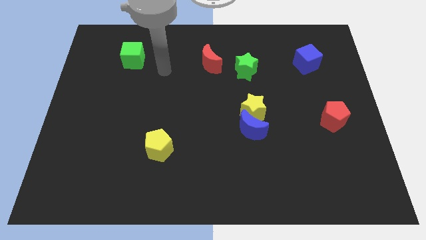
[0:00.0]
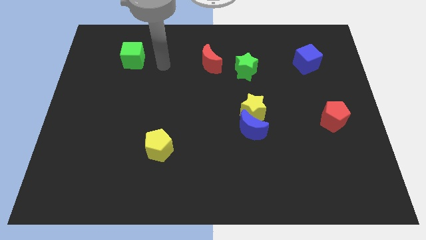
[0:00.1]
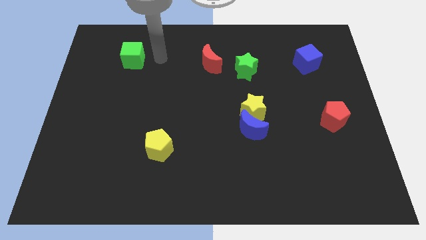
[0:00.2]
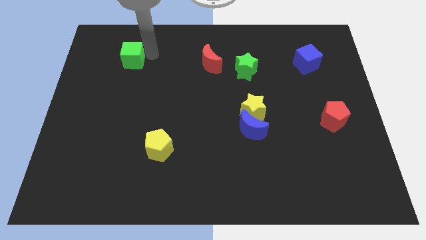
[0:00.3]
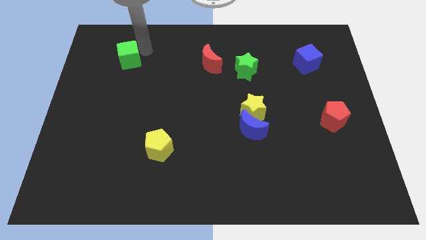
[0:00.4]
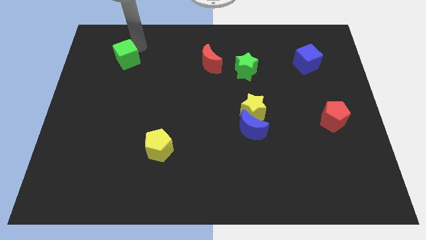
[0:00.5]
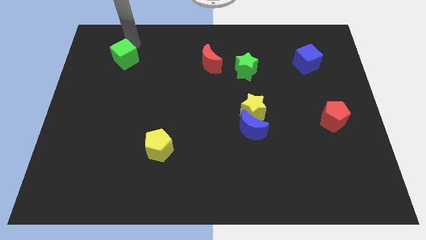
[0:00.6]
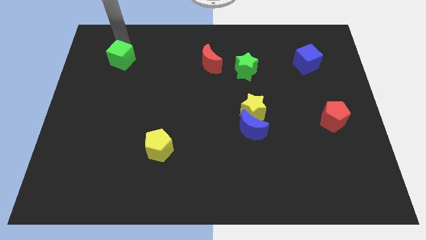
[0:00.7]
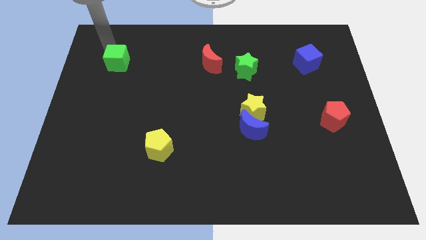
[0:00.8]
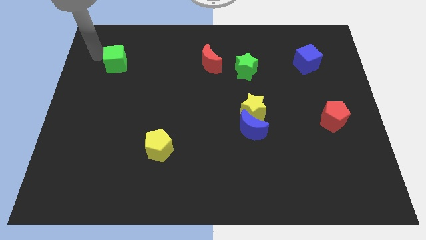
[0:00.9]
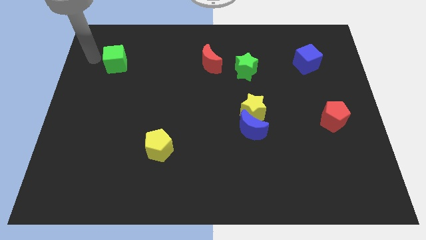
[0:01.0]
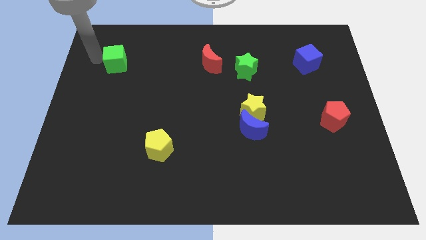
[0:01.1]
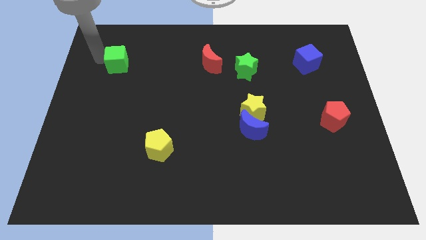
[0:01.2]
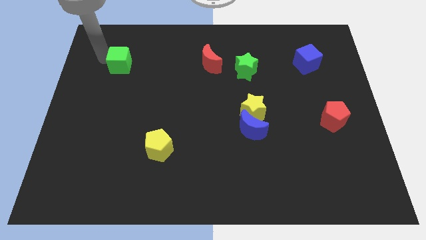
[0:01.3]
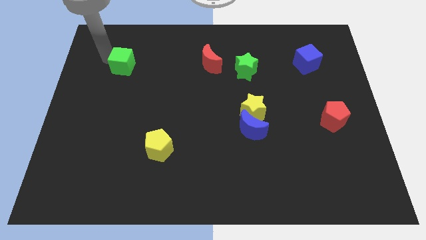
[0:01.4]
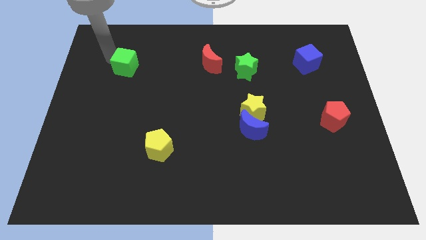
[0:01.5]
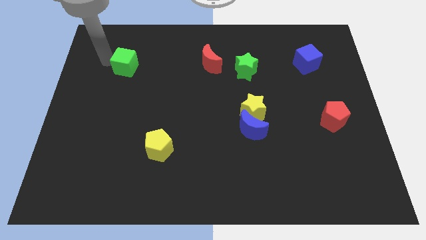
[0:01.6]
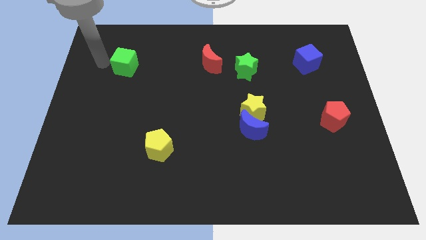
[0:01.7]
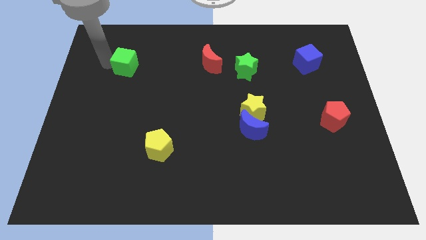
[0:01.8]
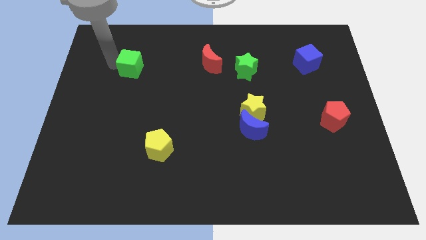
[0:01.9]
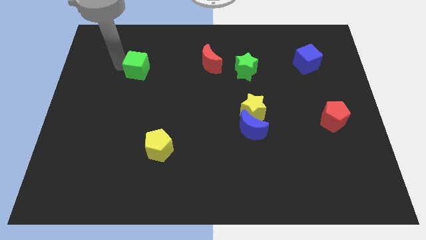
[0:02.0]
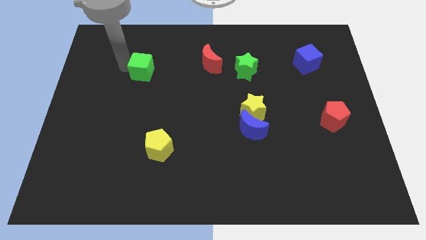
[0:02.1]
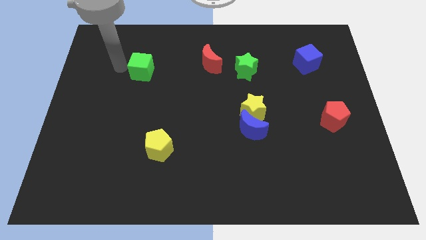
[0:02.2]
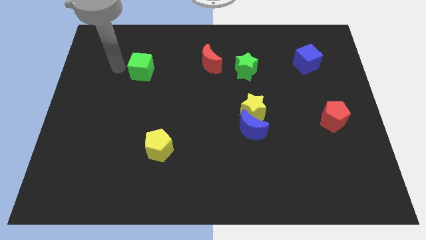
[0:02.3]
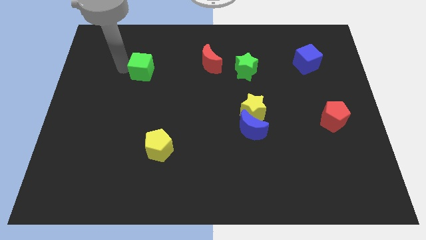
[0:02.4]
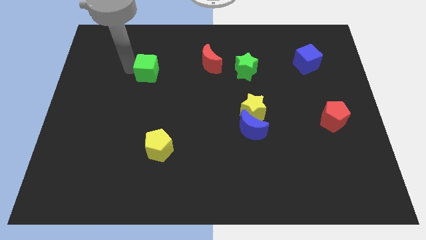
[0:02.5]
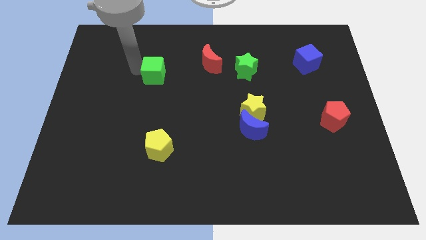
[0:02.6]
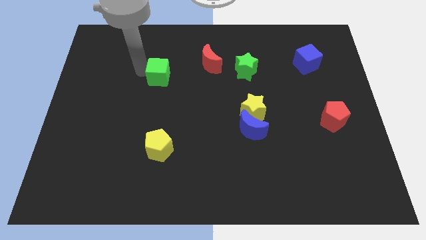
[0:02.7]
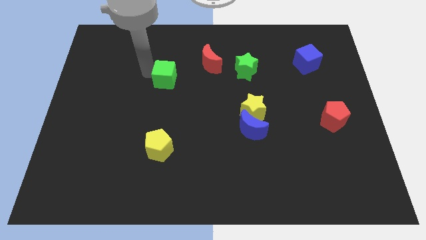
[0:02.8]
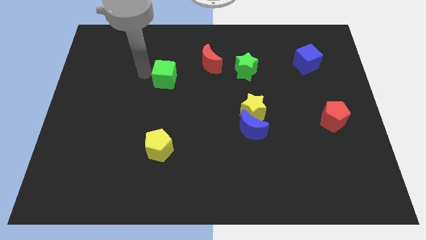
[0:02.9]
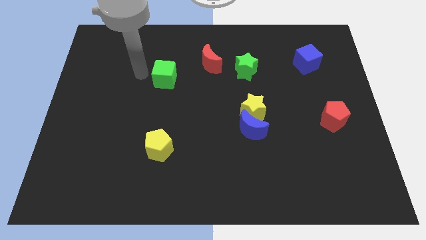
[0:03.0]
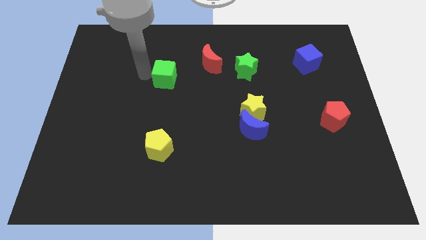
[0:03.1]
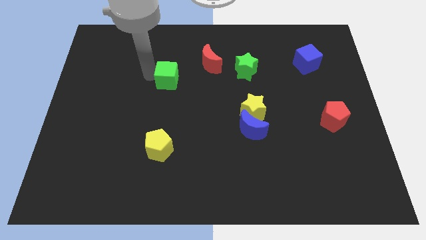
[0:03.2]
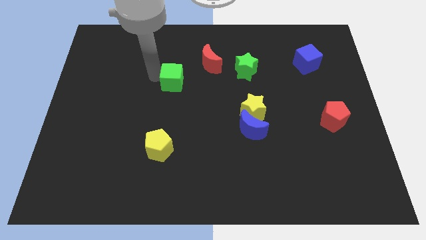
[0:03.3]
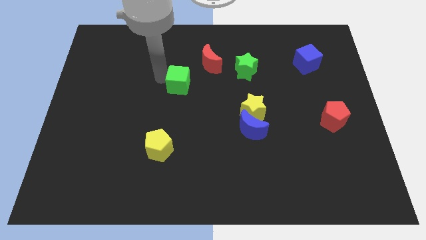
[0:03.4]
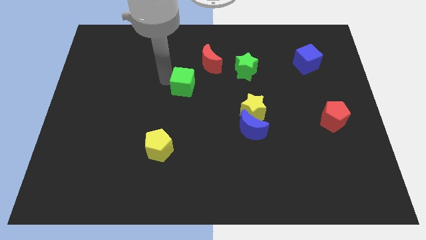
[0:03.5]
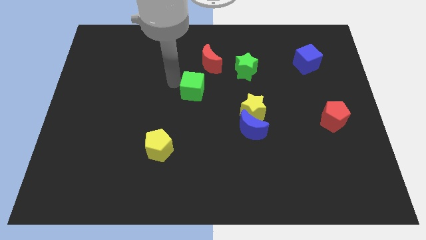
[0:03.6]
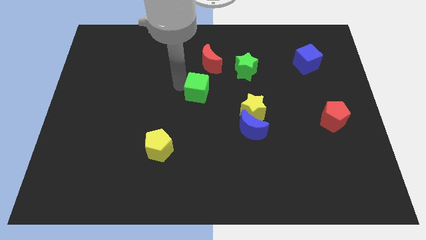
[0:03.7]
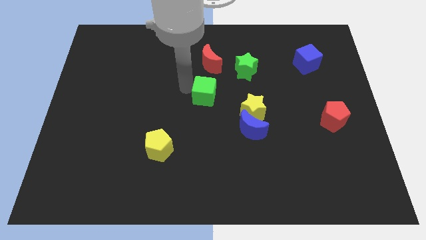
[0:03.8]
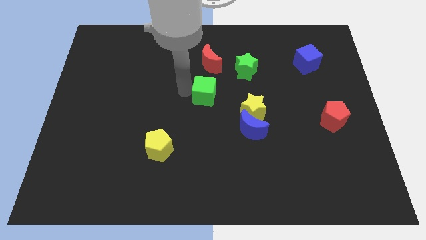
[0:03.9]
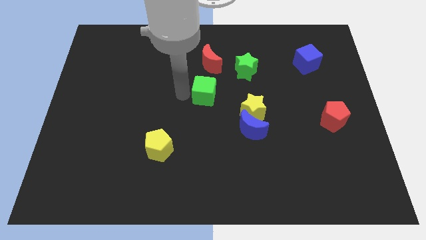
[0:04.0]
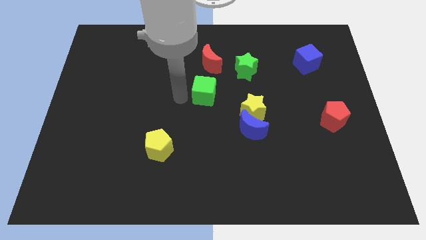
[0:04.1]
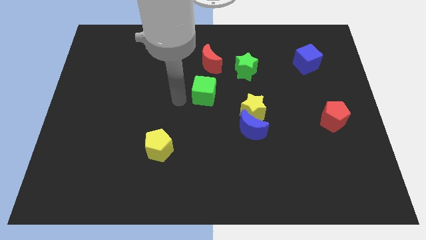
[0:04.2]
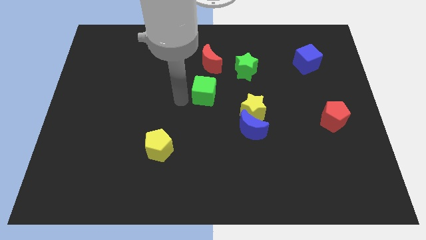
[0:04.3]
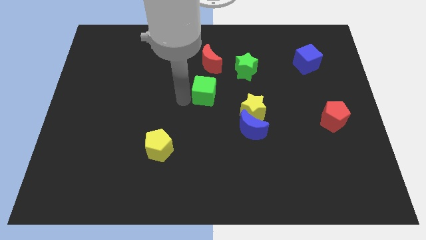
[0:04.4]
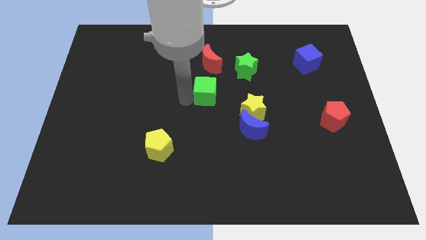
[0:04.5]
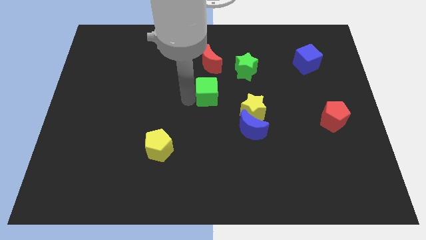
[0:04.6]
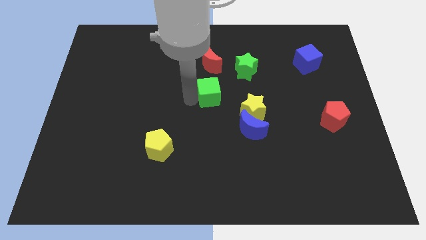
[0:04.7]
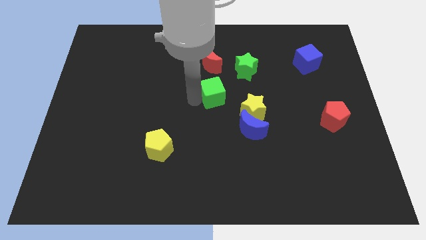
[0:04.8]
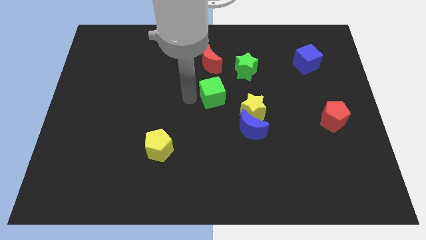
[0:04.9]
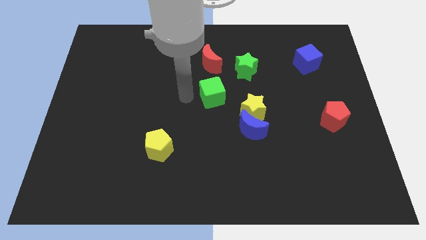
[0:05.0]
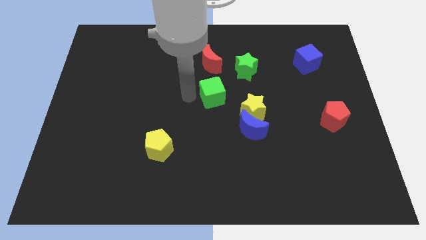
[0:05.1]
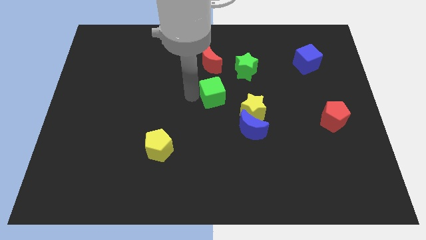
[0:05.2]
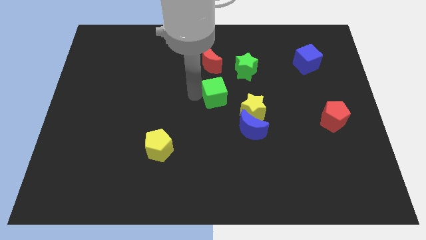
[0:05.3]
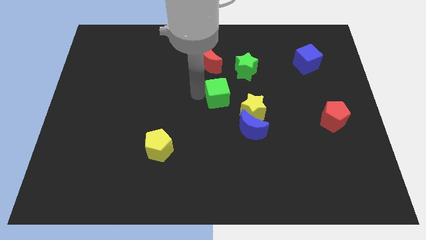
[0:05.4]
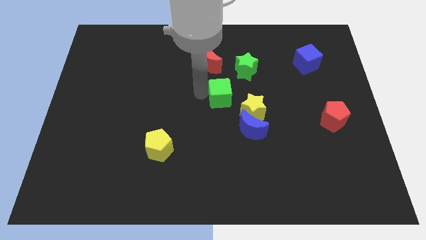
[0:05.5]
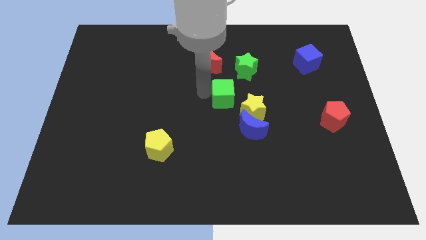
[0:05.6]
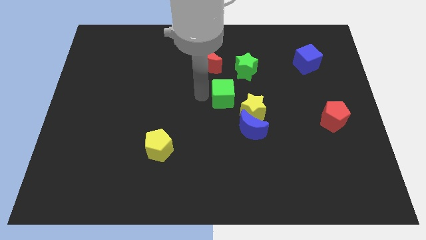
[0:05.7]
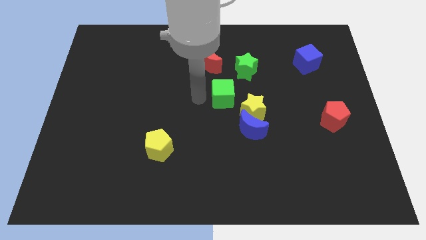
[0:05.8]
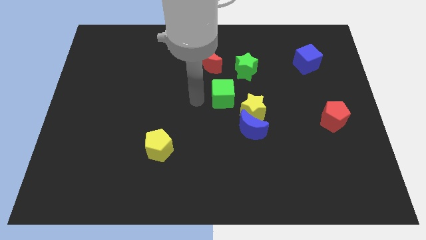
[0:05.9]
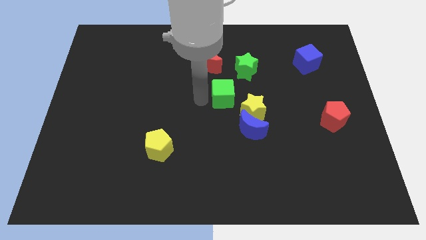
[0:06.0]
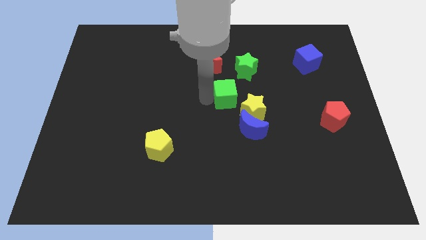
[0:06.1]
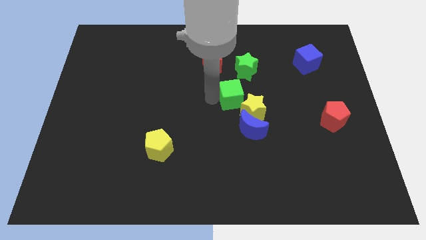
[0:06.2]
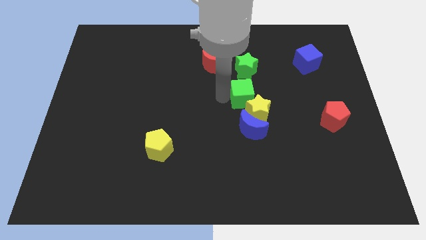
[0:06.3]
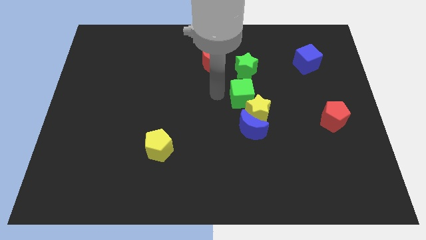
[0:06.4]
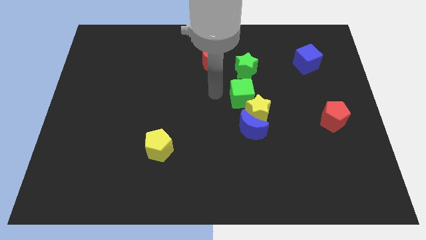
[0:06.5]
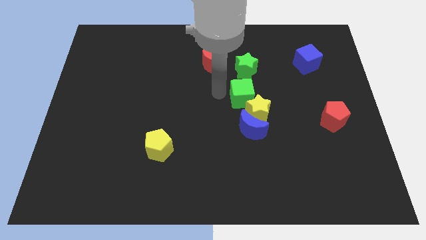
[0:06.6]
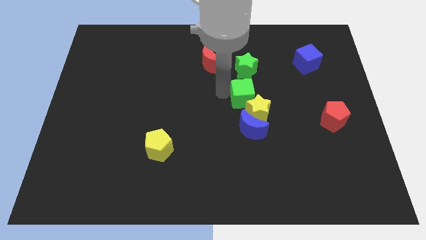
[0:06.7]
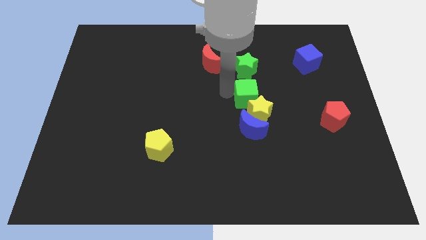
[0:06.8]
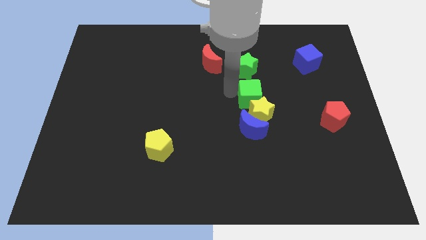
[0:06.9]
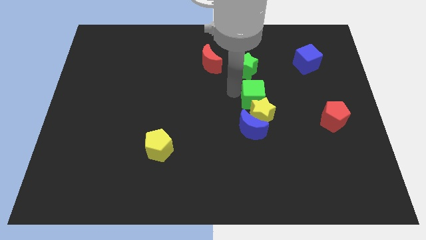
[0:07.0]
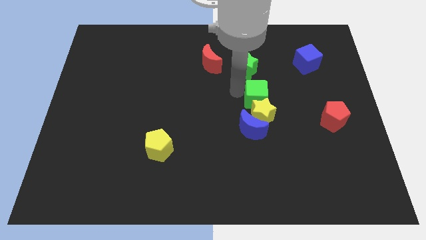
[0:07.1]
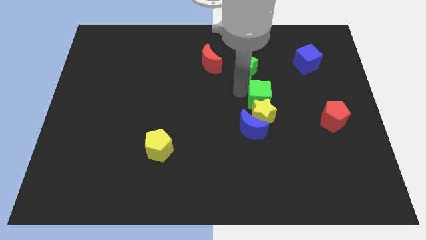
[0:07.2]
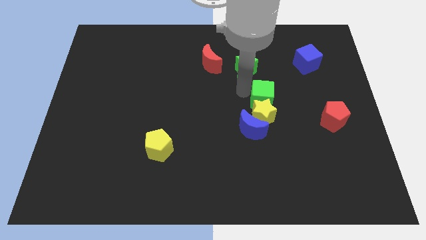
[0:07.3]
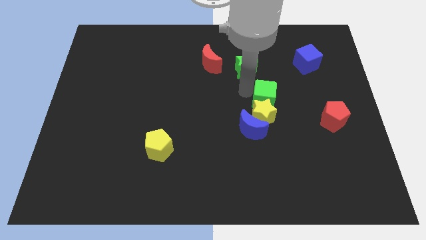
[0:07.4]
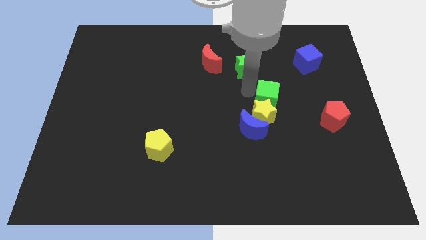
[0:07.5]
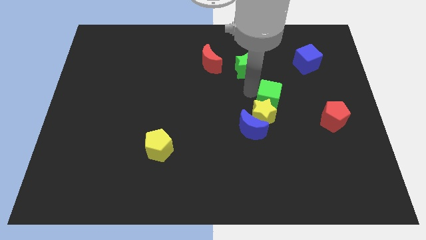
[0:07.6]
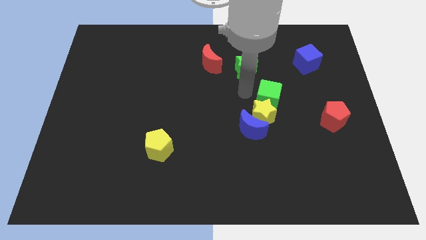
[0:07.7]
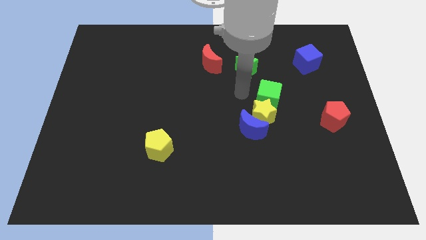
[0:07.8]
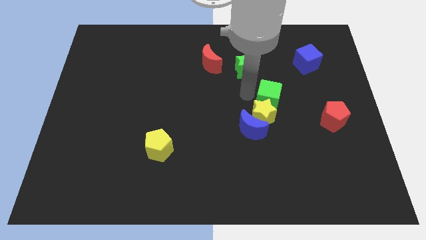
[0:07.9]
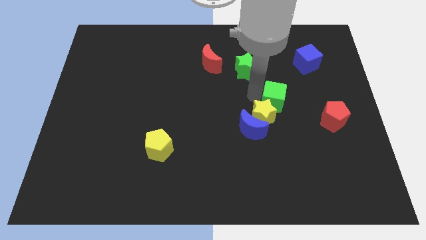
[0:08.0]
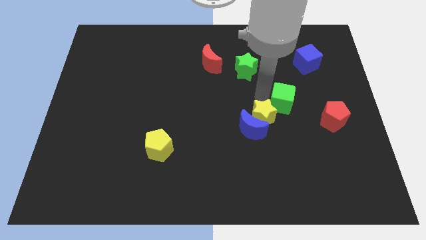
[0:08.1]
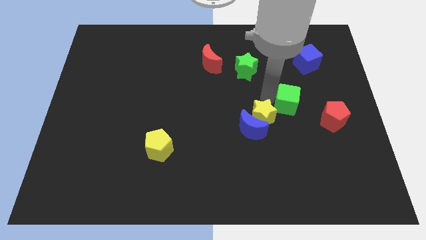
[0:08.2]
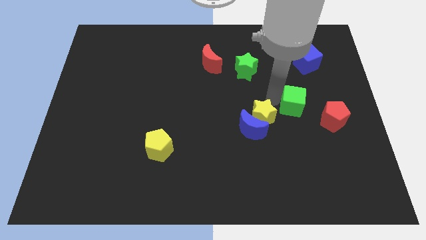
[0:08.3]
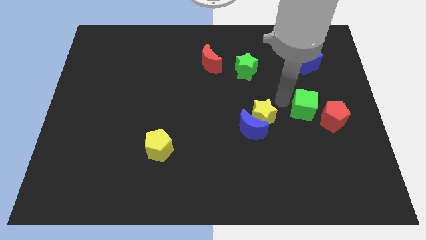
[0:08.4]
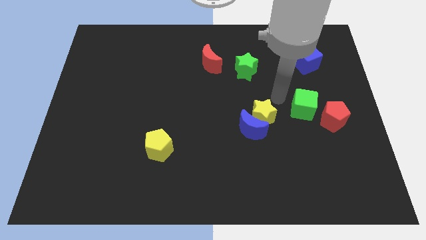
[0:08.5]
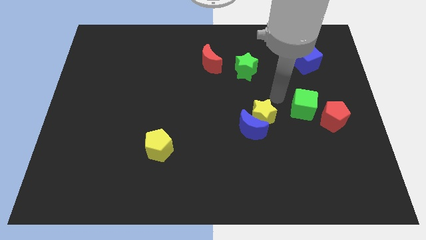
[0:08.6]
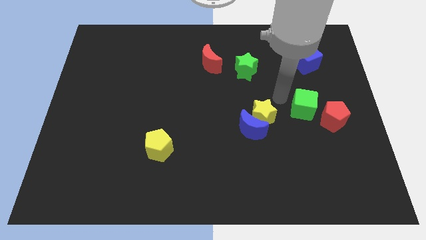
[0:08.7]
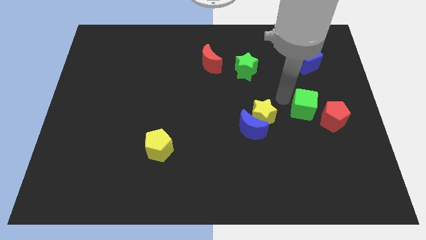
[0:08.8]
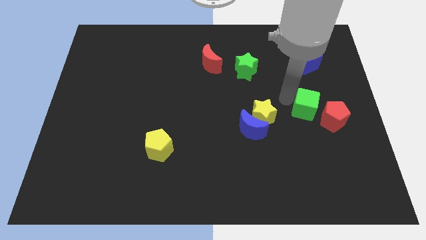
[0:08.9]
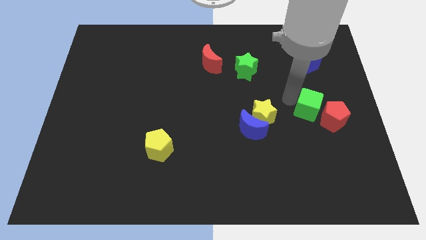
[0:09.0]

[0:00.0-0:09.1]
push the green cube to the red pentagon
